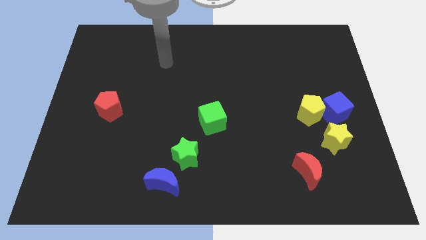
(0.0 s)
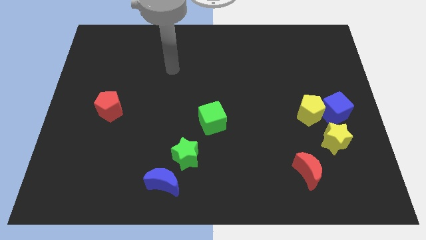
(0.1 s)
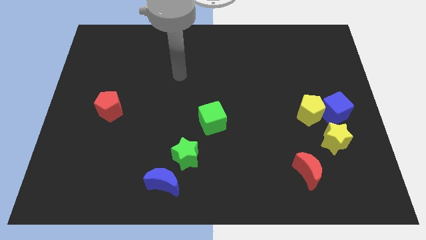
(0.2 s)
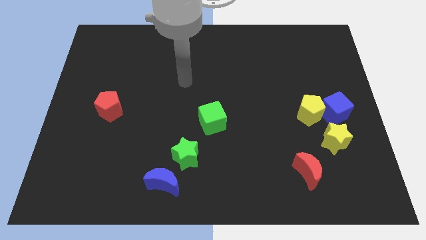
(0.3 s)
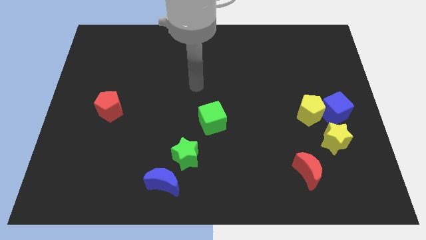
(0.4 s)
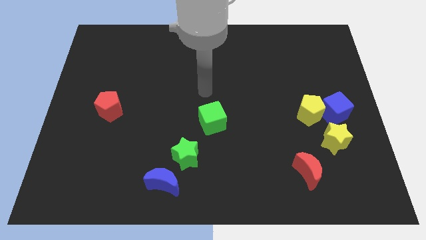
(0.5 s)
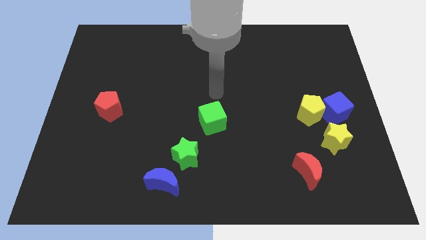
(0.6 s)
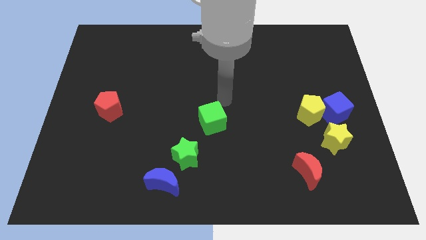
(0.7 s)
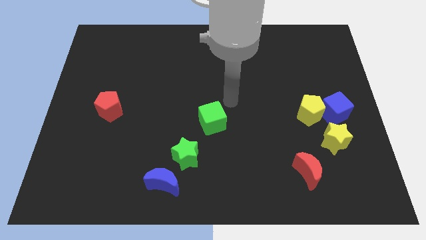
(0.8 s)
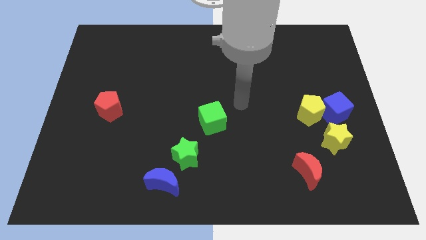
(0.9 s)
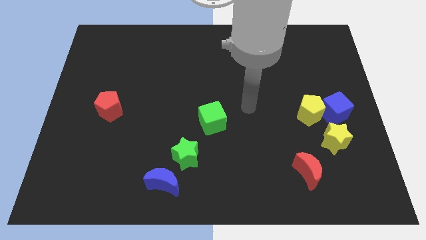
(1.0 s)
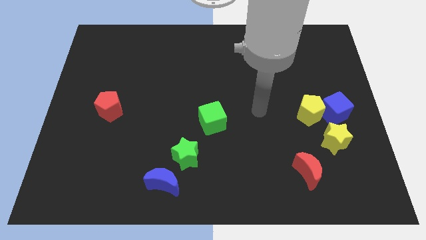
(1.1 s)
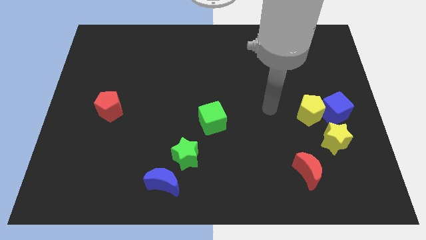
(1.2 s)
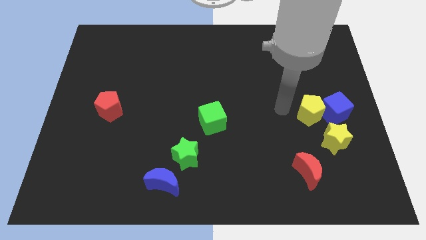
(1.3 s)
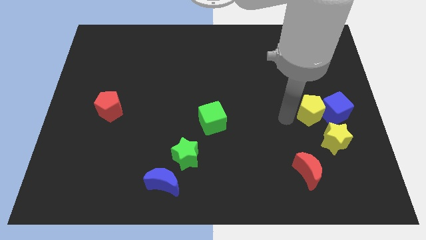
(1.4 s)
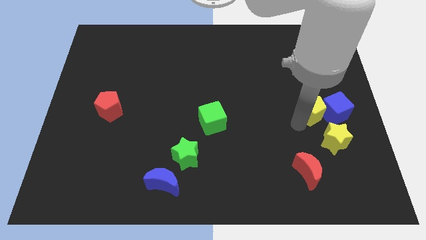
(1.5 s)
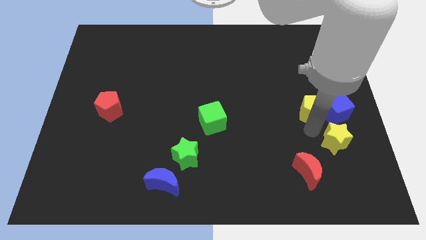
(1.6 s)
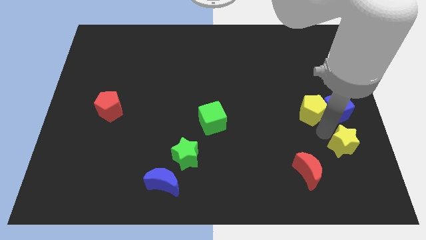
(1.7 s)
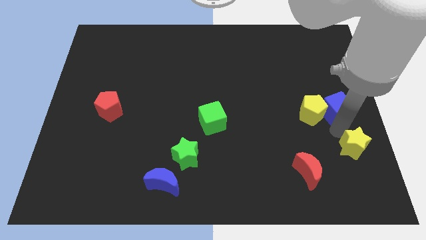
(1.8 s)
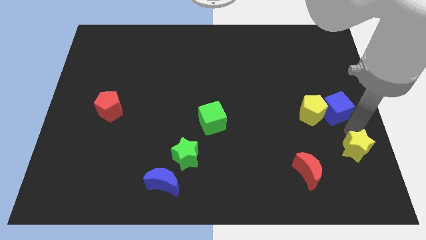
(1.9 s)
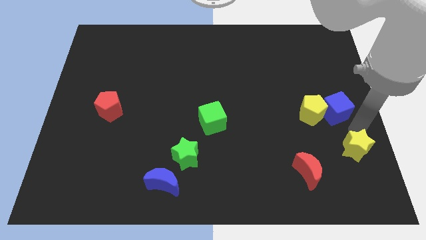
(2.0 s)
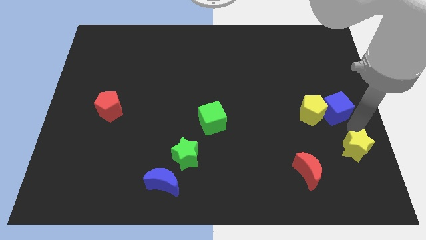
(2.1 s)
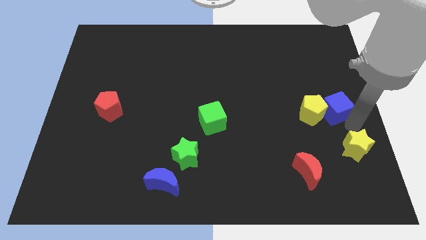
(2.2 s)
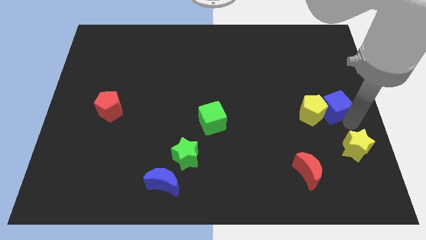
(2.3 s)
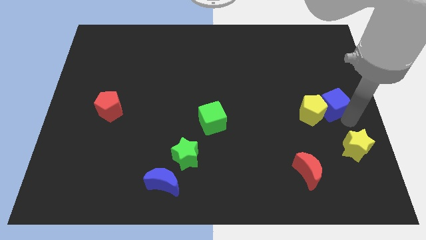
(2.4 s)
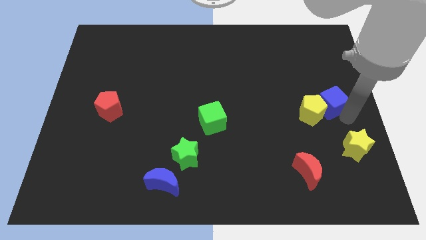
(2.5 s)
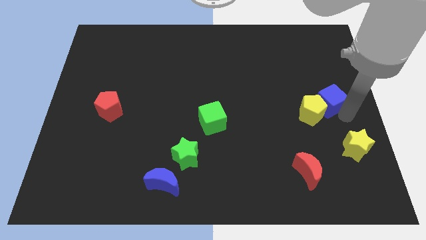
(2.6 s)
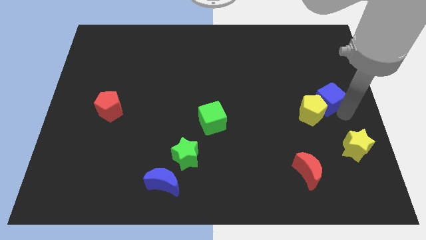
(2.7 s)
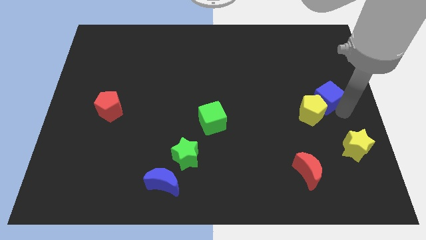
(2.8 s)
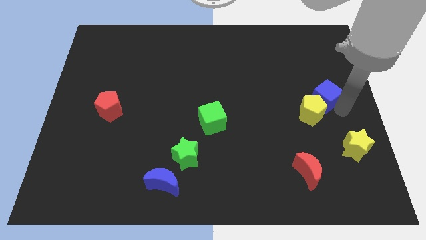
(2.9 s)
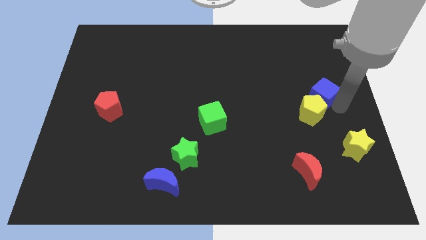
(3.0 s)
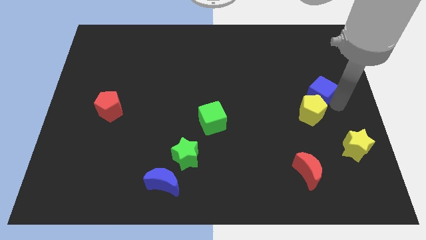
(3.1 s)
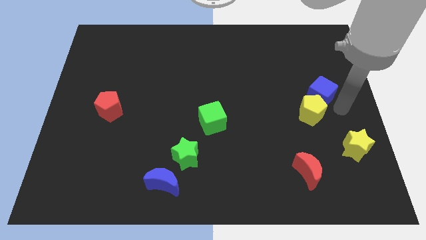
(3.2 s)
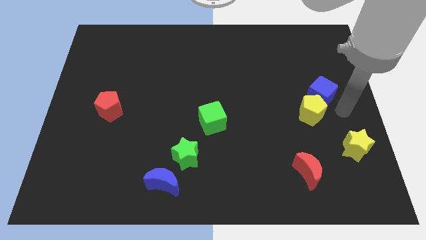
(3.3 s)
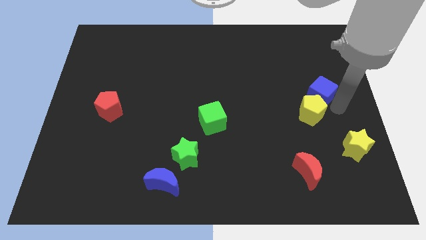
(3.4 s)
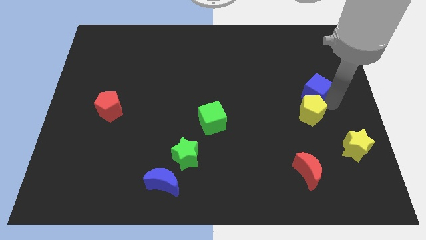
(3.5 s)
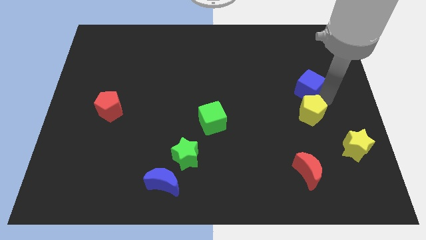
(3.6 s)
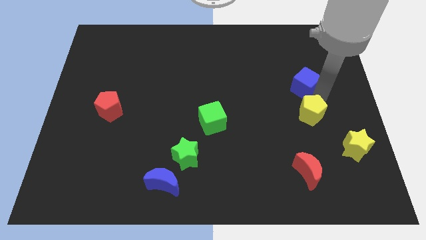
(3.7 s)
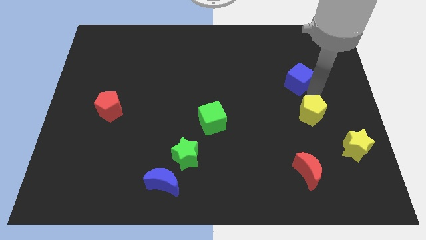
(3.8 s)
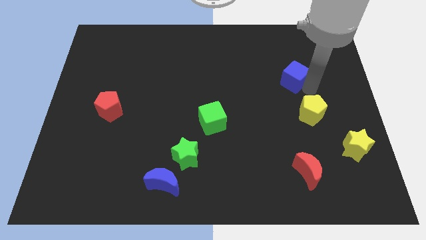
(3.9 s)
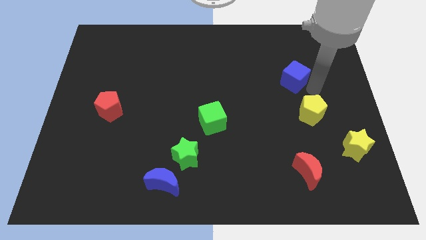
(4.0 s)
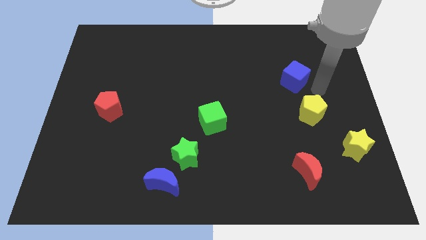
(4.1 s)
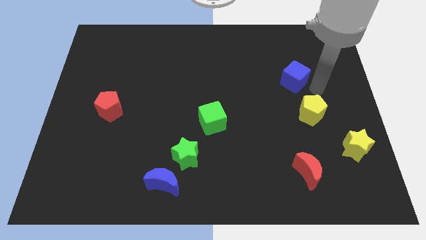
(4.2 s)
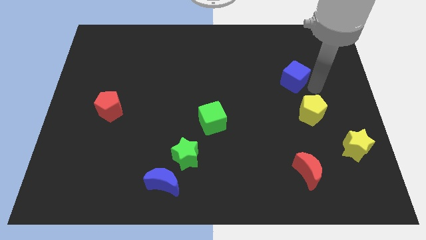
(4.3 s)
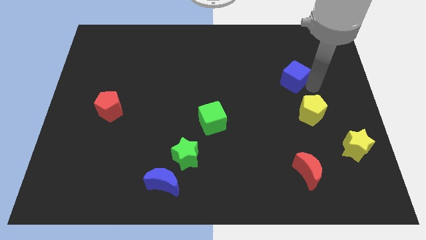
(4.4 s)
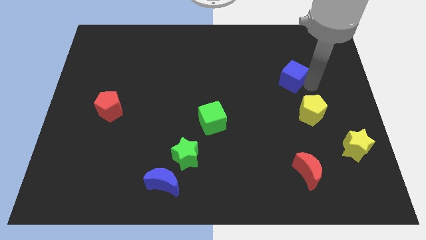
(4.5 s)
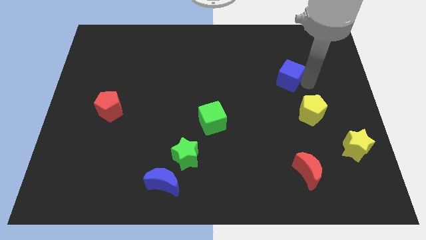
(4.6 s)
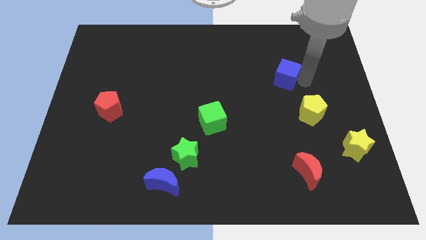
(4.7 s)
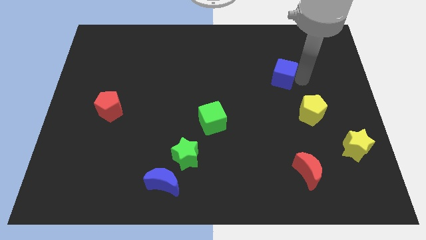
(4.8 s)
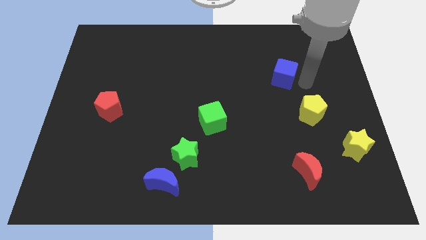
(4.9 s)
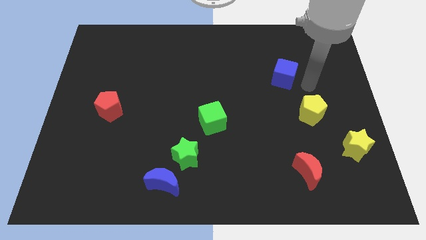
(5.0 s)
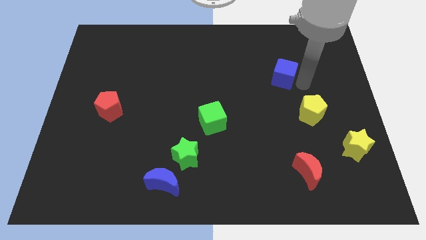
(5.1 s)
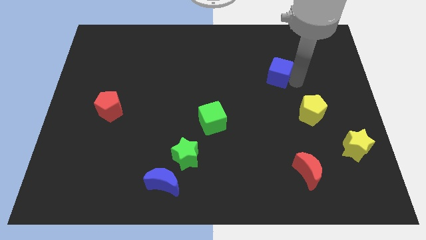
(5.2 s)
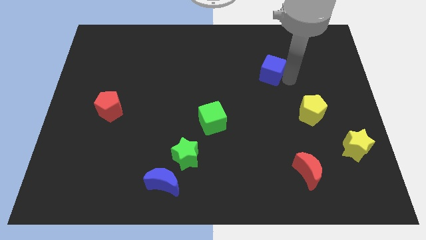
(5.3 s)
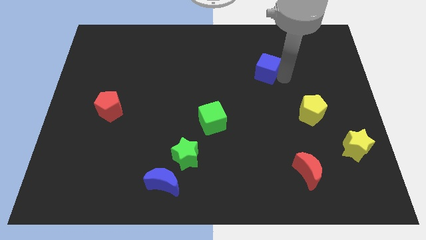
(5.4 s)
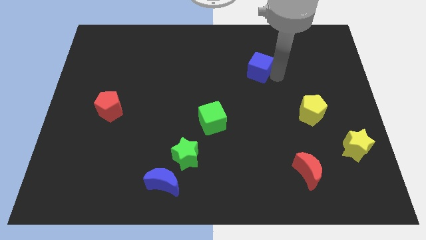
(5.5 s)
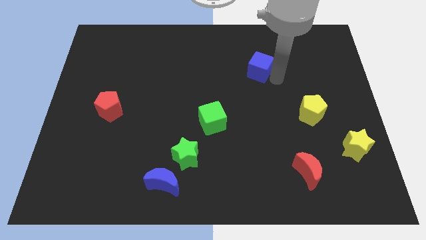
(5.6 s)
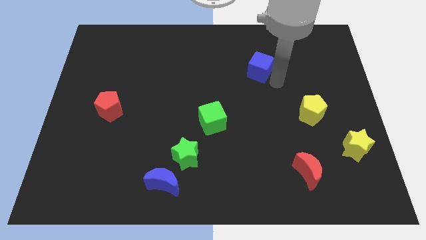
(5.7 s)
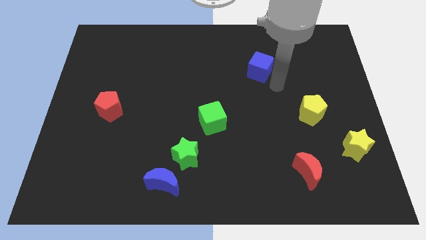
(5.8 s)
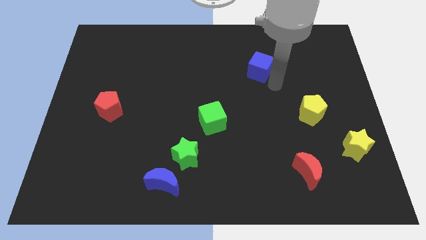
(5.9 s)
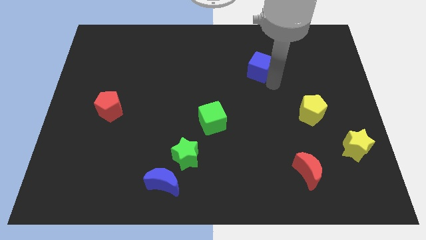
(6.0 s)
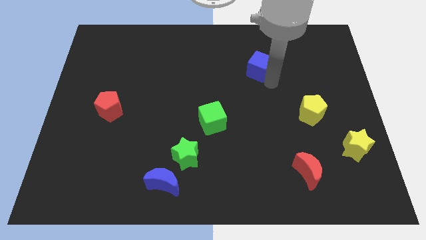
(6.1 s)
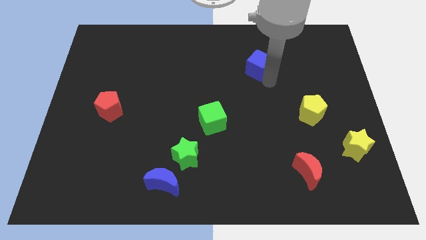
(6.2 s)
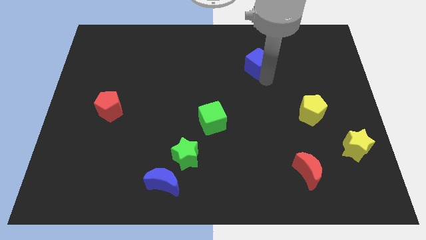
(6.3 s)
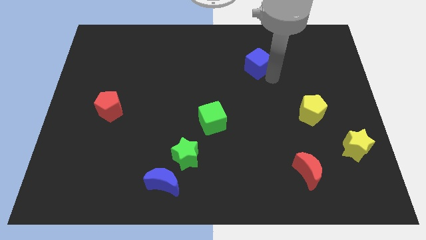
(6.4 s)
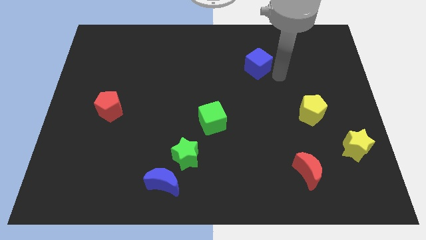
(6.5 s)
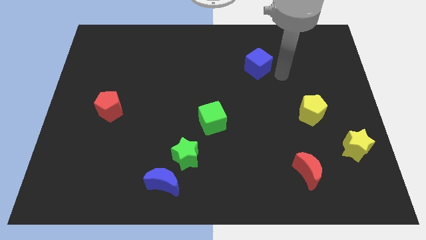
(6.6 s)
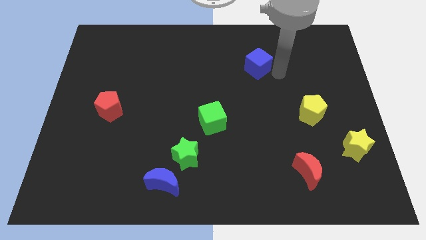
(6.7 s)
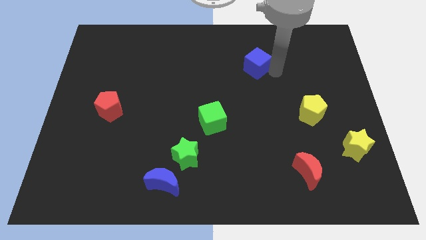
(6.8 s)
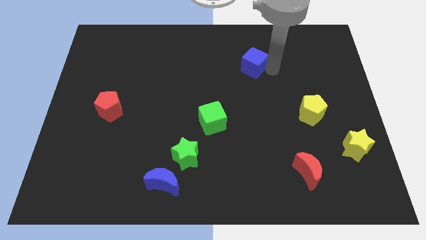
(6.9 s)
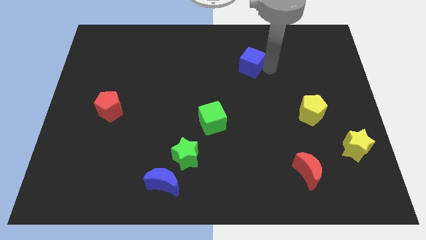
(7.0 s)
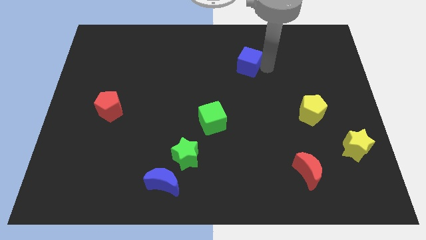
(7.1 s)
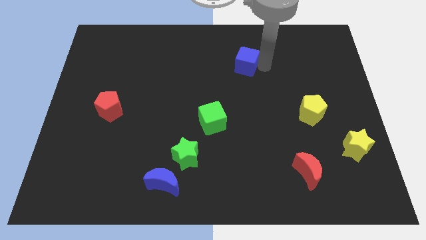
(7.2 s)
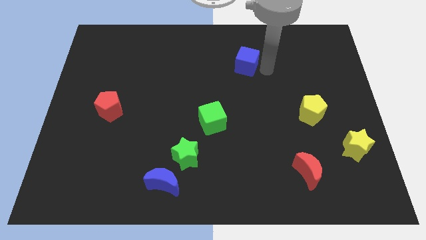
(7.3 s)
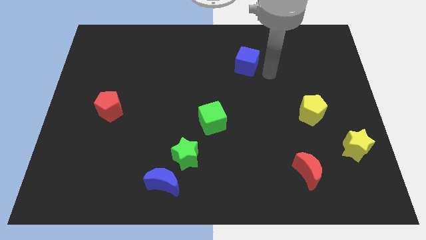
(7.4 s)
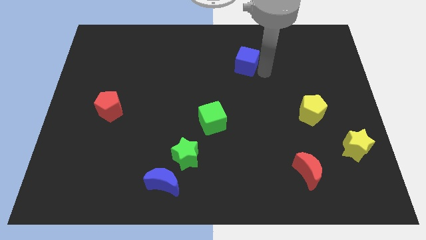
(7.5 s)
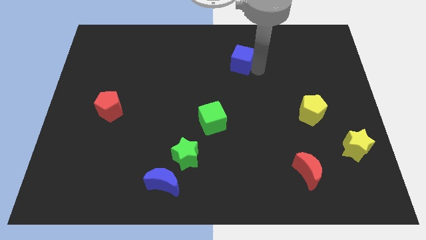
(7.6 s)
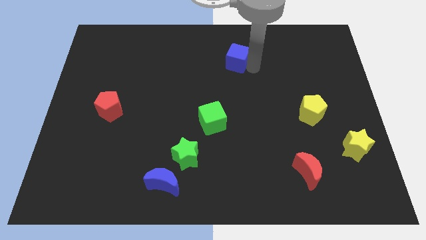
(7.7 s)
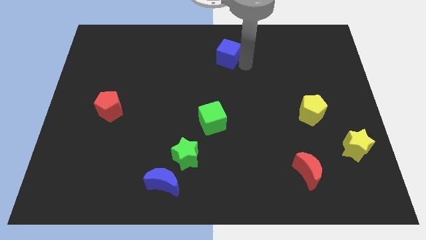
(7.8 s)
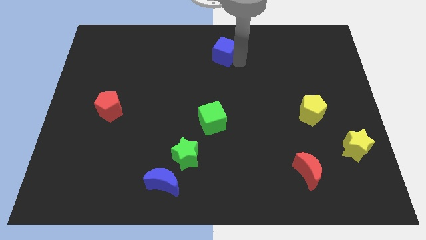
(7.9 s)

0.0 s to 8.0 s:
put the blue cube to the top side
